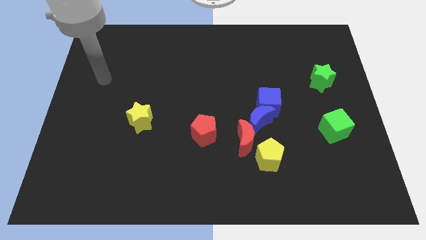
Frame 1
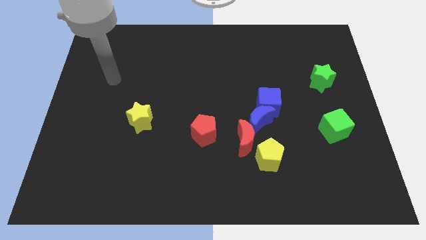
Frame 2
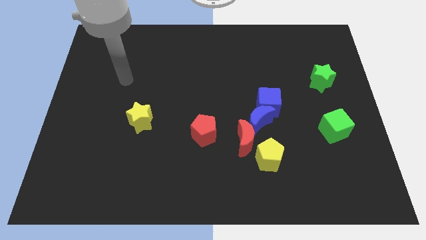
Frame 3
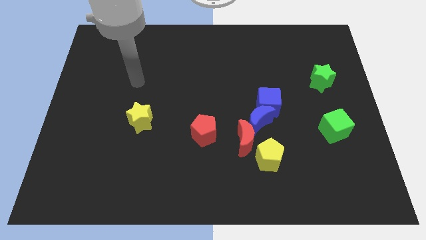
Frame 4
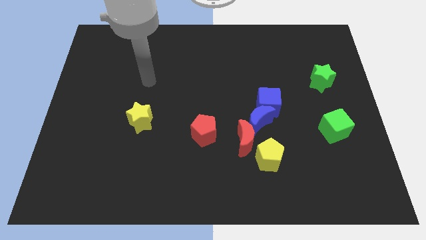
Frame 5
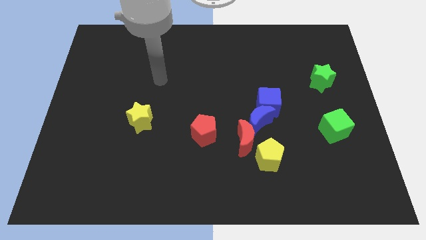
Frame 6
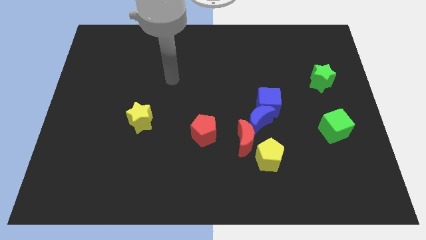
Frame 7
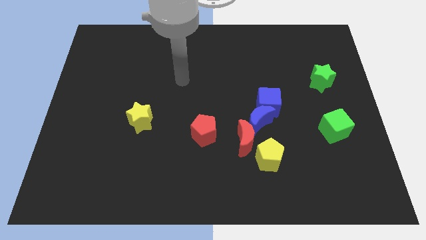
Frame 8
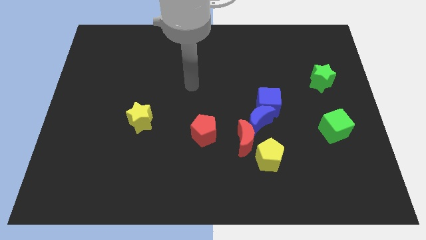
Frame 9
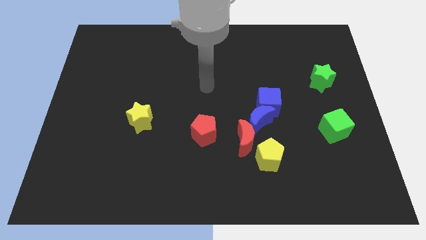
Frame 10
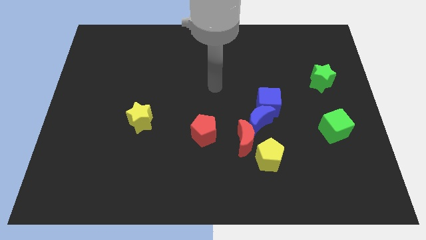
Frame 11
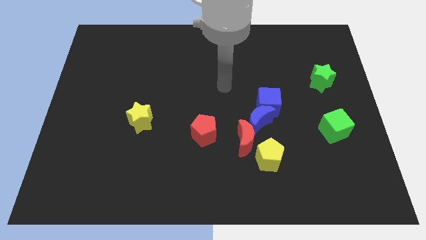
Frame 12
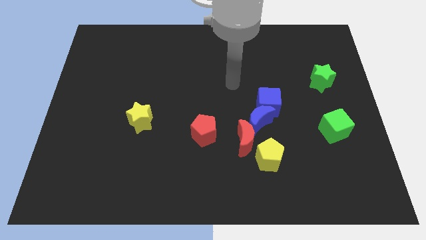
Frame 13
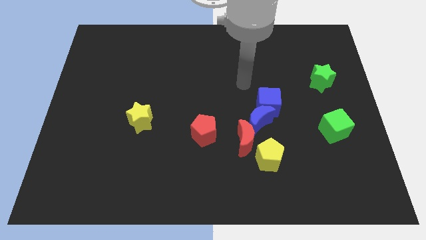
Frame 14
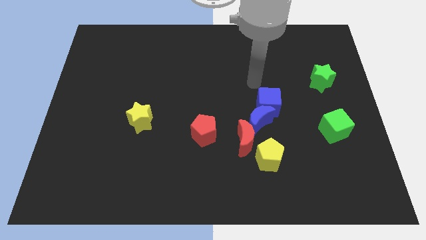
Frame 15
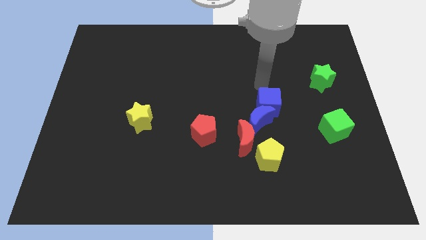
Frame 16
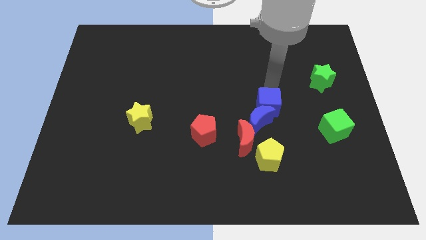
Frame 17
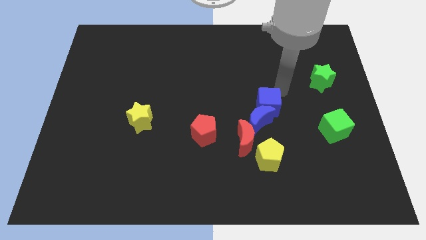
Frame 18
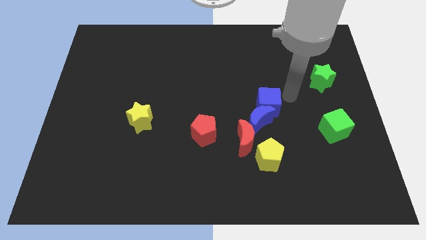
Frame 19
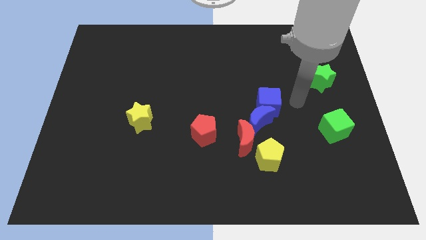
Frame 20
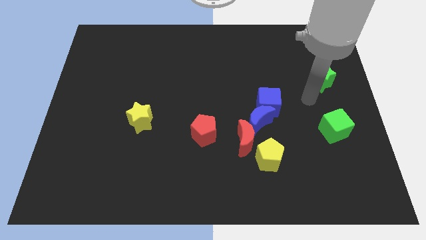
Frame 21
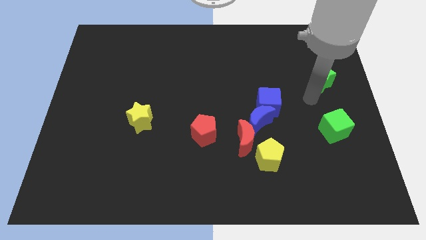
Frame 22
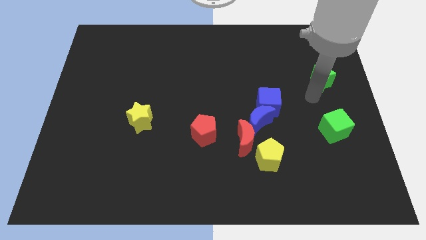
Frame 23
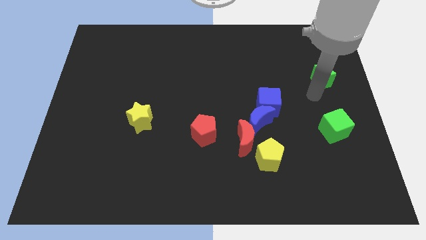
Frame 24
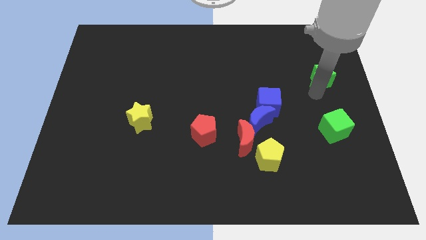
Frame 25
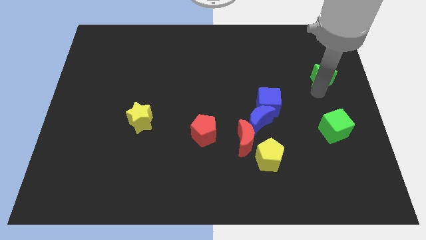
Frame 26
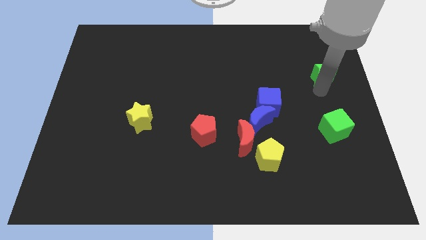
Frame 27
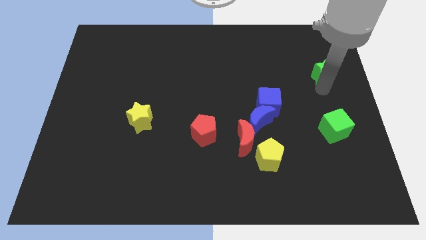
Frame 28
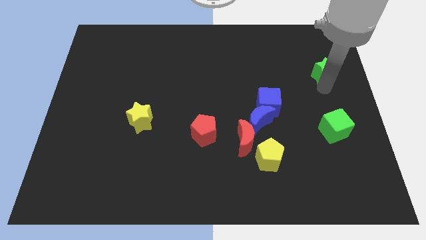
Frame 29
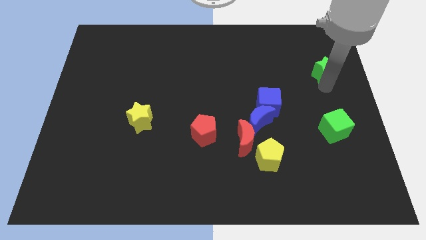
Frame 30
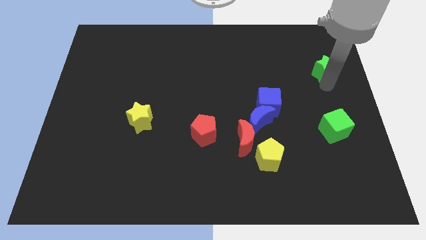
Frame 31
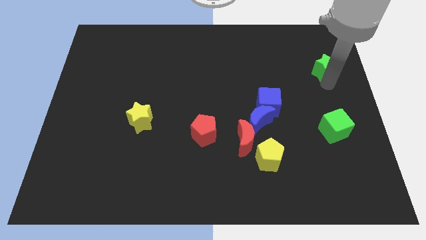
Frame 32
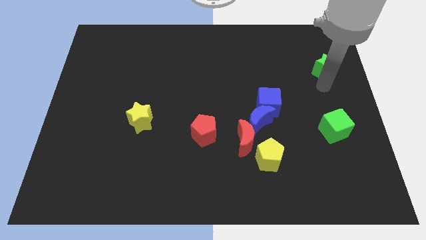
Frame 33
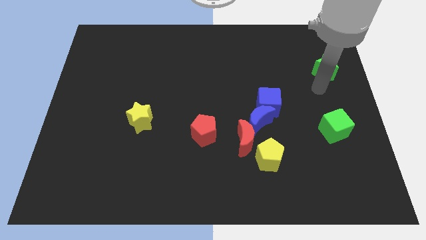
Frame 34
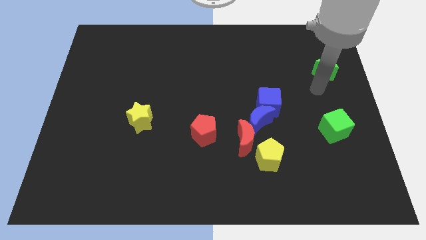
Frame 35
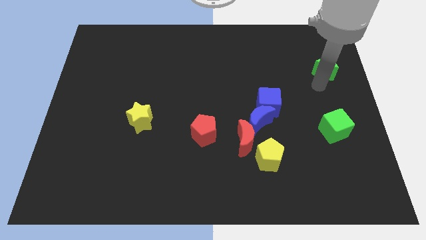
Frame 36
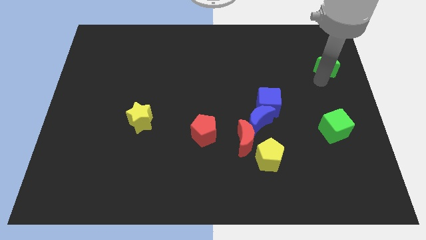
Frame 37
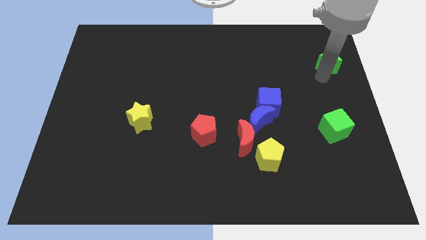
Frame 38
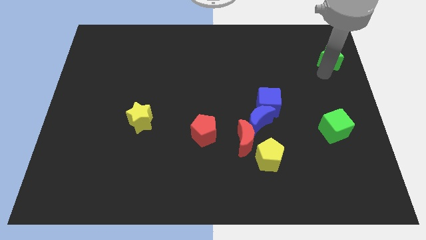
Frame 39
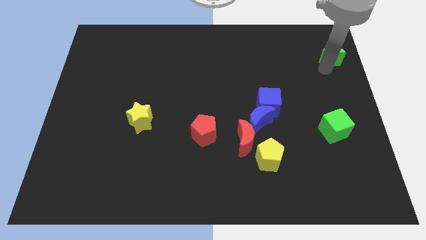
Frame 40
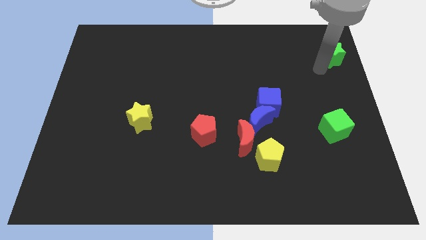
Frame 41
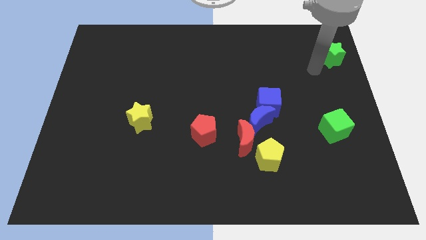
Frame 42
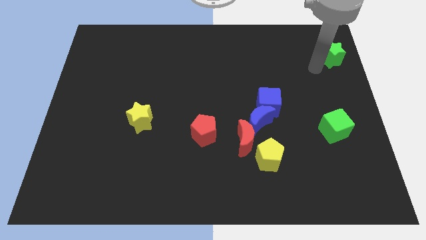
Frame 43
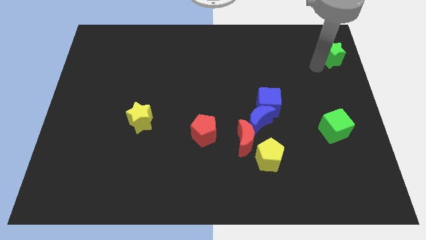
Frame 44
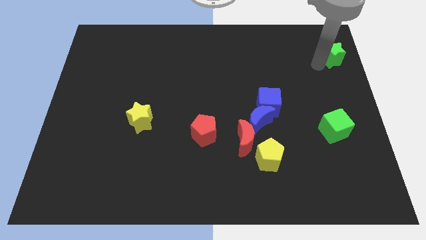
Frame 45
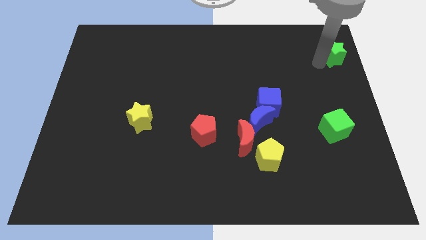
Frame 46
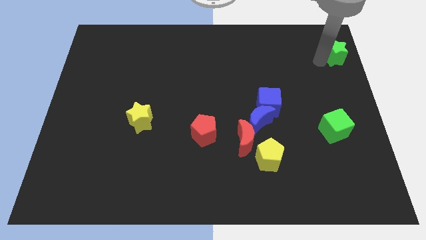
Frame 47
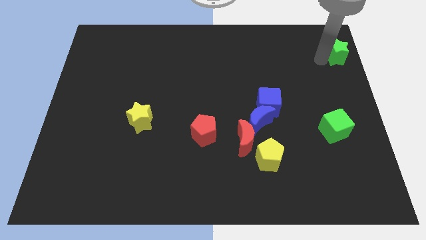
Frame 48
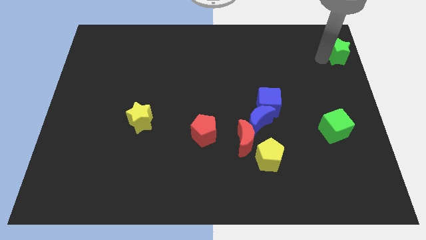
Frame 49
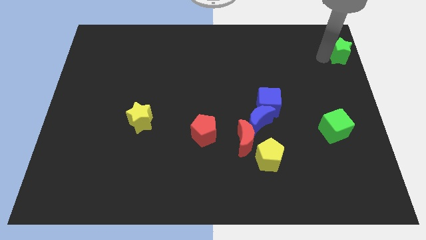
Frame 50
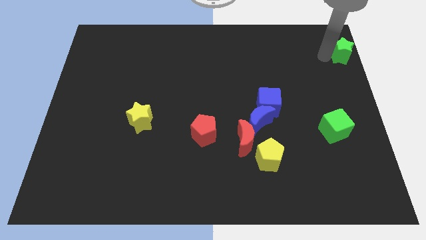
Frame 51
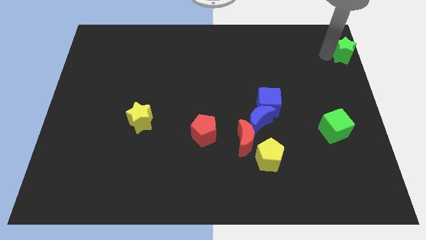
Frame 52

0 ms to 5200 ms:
slide the green star to the upper right corner

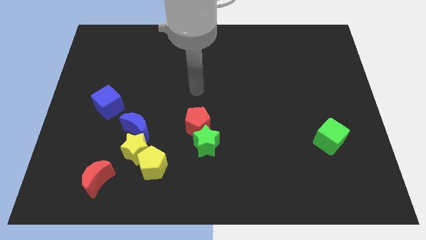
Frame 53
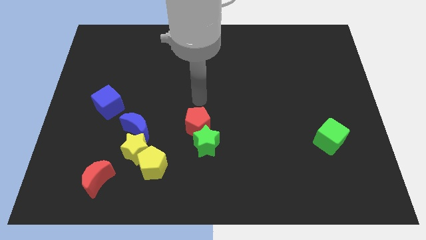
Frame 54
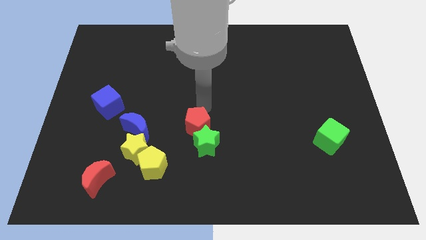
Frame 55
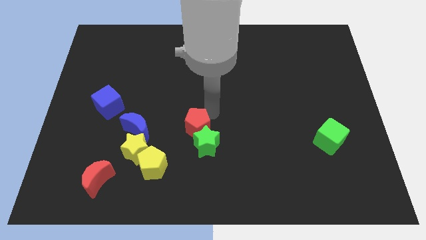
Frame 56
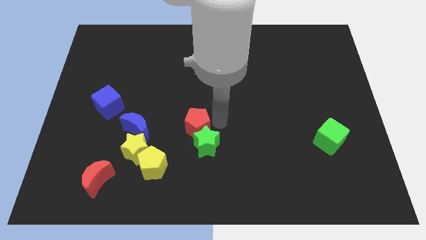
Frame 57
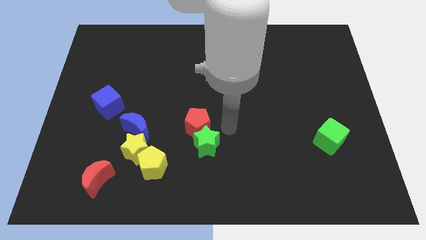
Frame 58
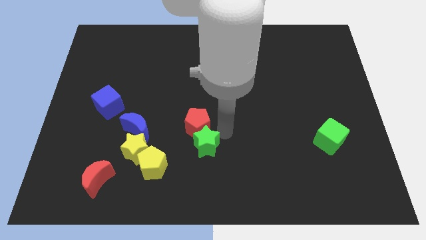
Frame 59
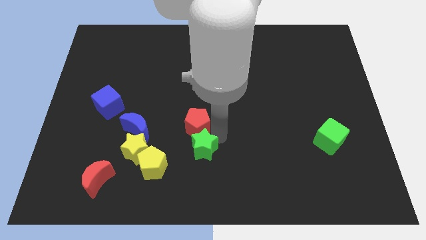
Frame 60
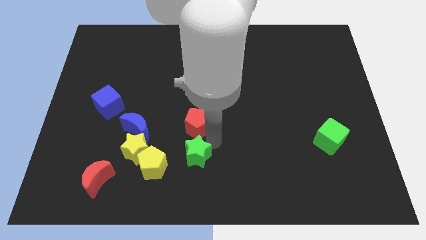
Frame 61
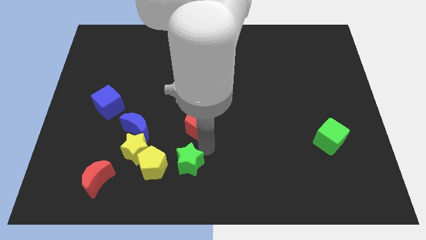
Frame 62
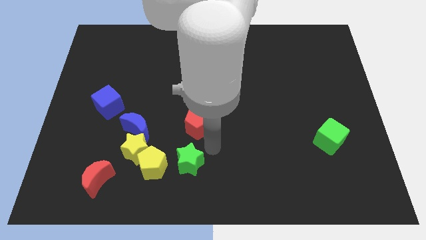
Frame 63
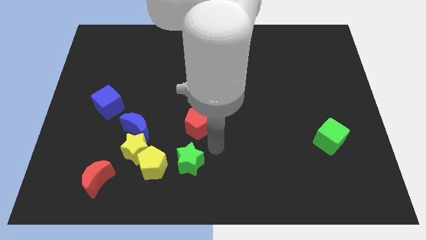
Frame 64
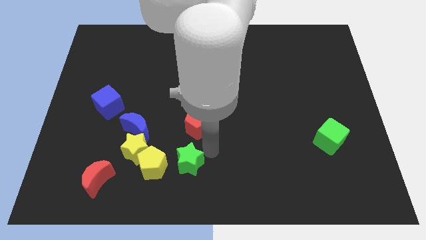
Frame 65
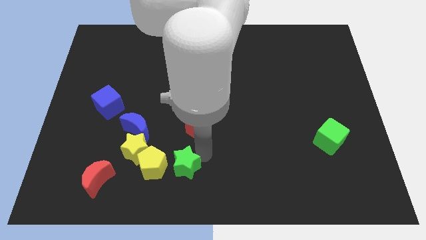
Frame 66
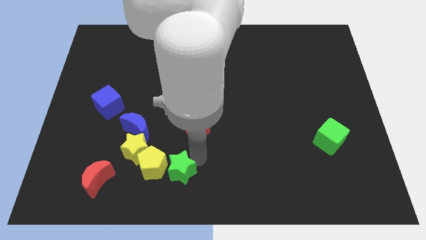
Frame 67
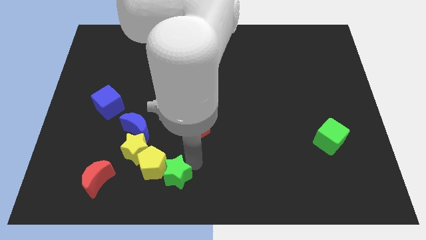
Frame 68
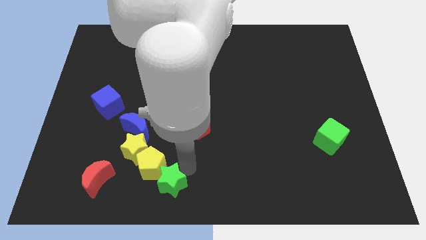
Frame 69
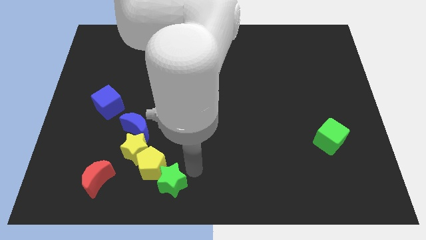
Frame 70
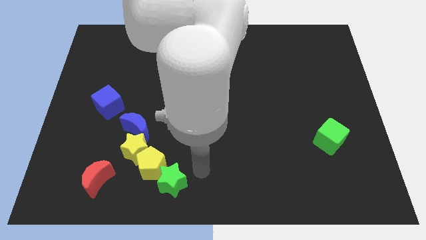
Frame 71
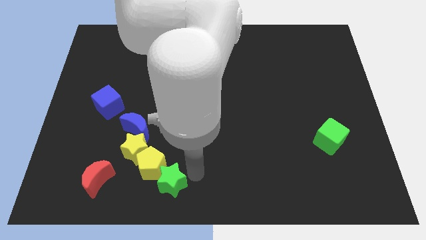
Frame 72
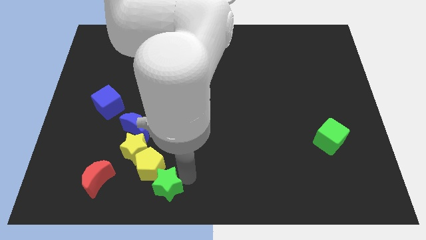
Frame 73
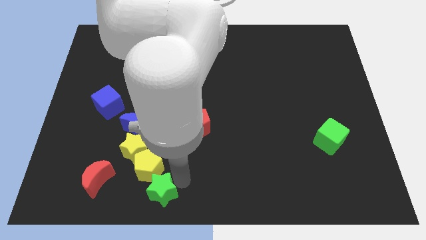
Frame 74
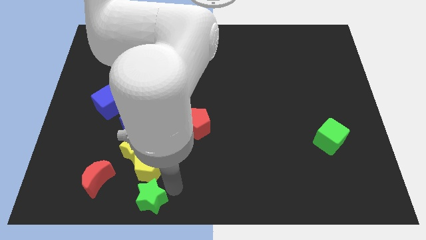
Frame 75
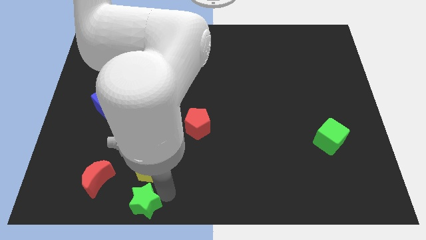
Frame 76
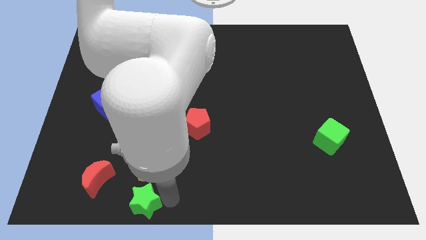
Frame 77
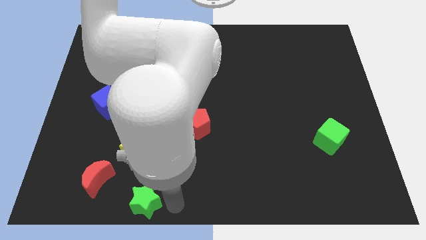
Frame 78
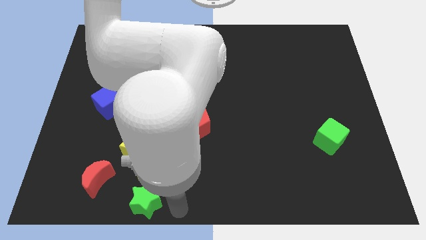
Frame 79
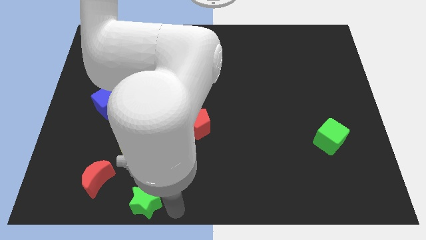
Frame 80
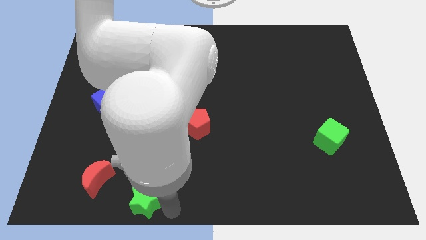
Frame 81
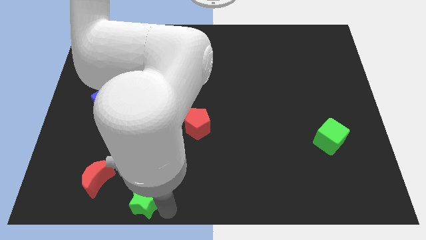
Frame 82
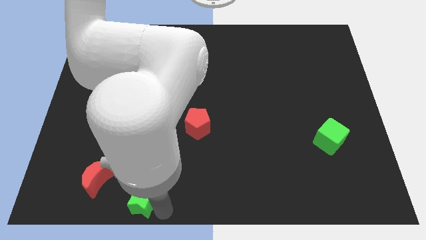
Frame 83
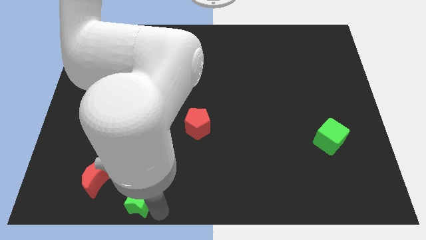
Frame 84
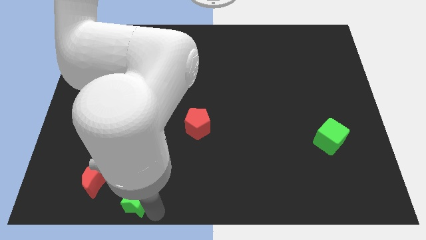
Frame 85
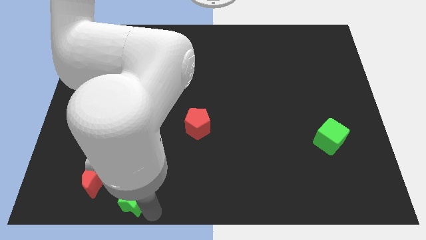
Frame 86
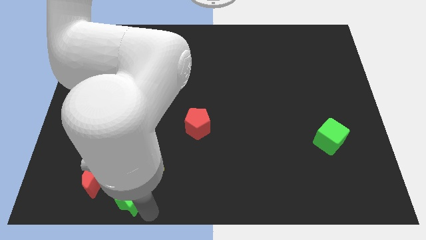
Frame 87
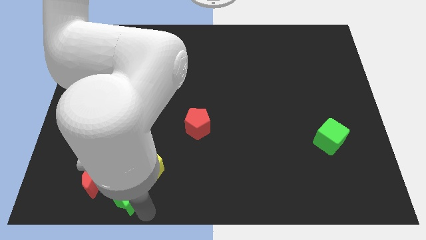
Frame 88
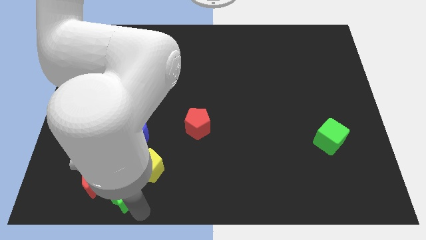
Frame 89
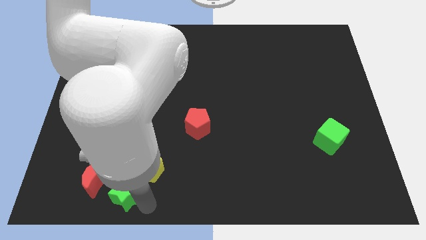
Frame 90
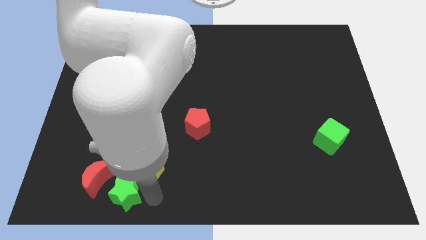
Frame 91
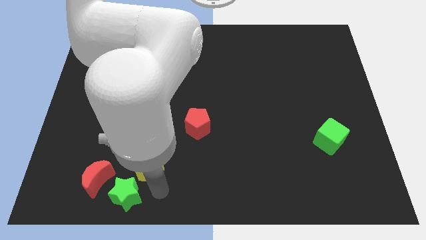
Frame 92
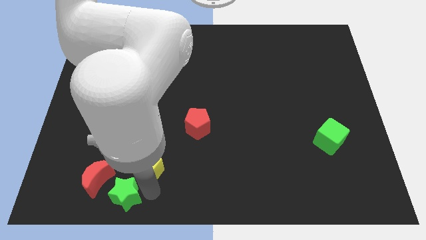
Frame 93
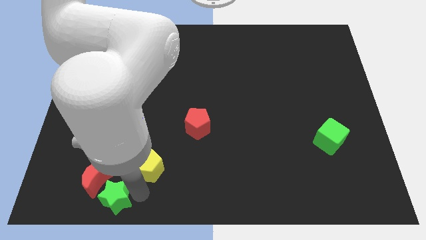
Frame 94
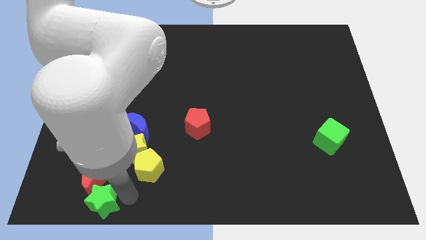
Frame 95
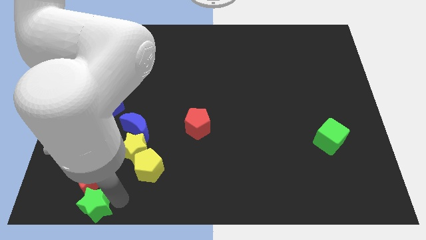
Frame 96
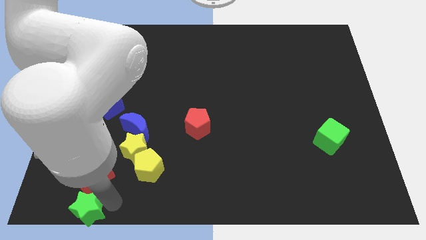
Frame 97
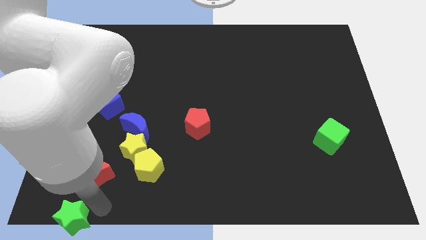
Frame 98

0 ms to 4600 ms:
push the green star to the bottom left of the board
